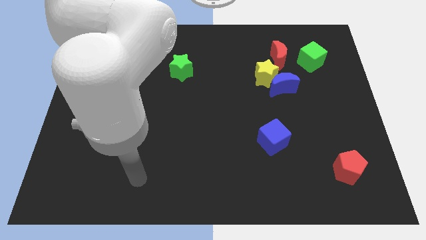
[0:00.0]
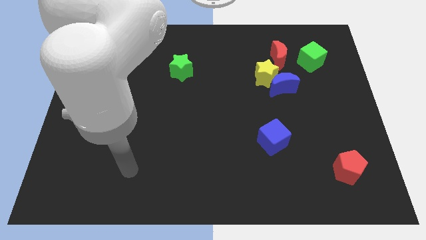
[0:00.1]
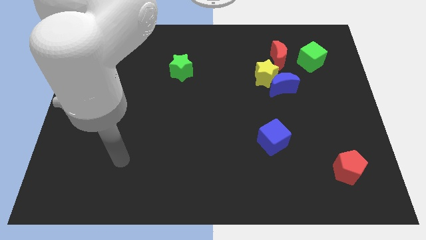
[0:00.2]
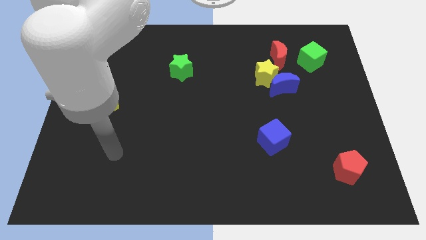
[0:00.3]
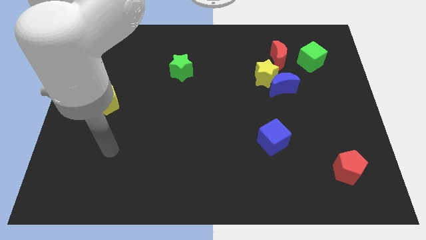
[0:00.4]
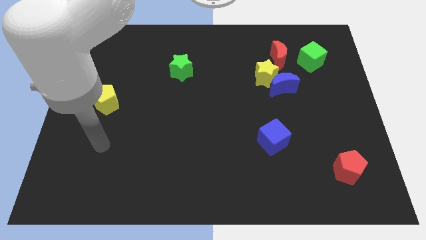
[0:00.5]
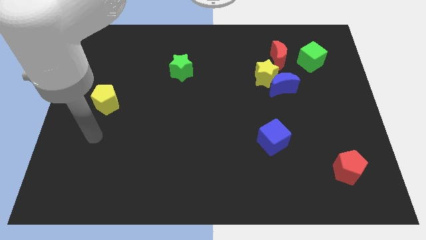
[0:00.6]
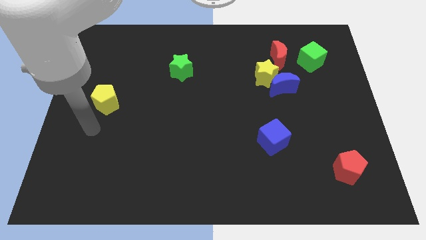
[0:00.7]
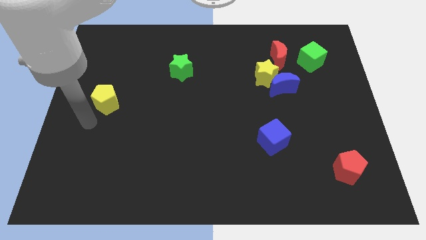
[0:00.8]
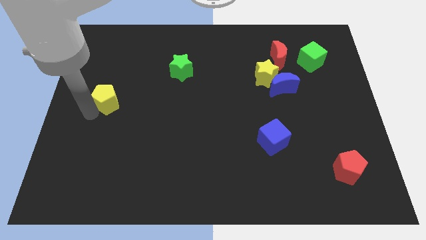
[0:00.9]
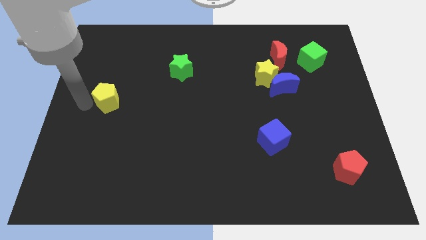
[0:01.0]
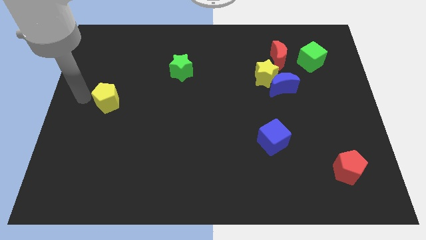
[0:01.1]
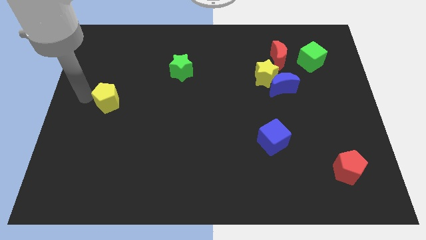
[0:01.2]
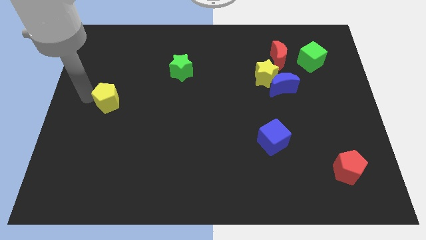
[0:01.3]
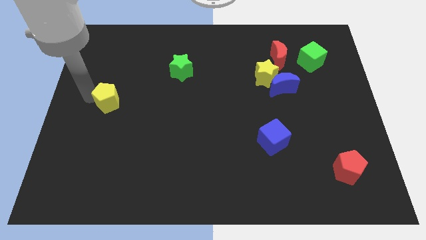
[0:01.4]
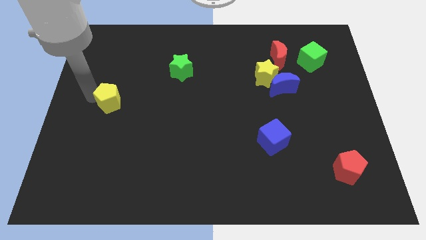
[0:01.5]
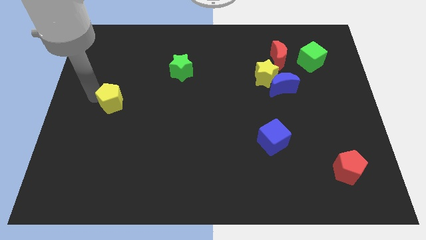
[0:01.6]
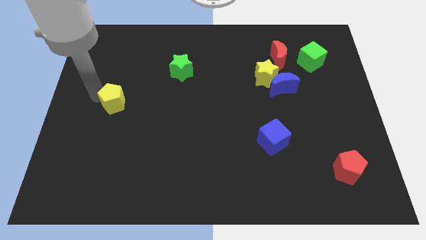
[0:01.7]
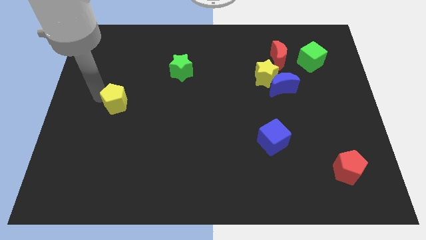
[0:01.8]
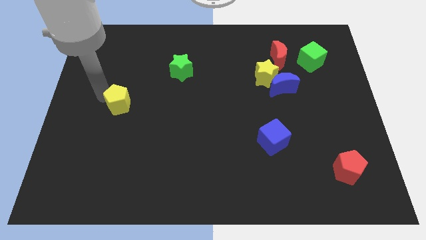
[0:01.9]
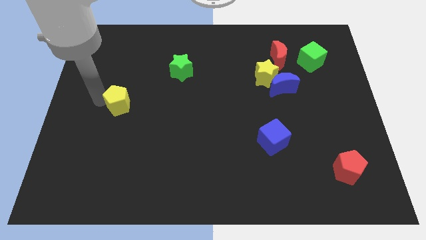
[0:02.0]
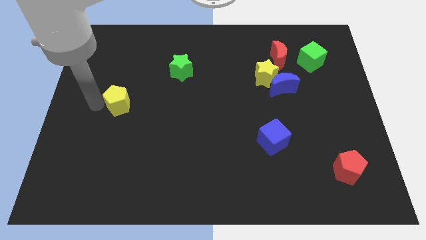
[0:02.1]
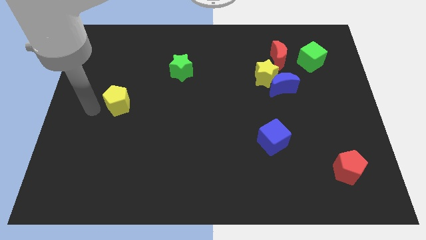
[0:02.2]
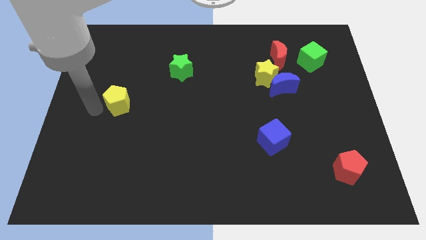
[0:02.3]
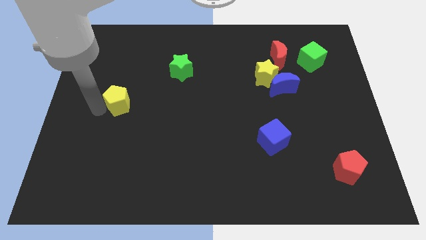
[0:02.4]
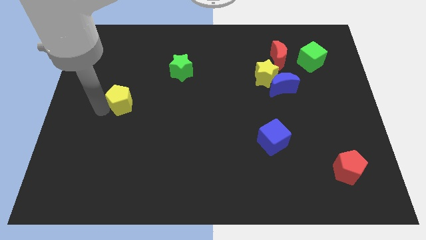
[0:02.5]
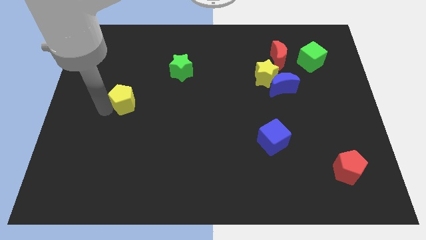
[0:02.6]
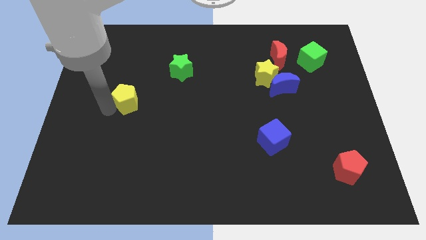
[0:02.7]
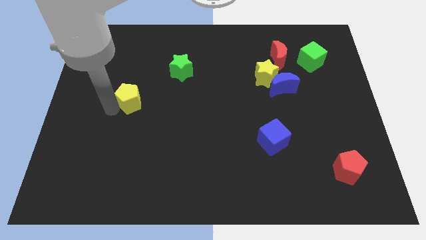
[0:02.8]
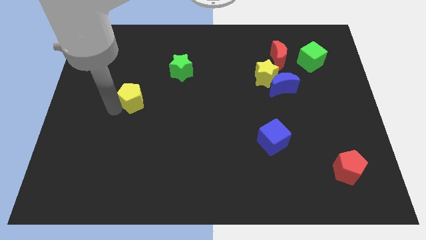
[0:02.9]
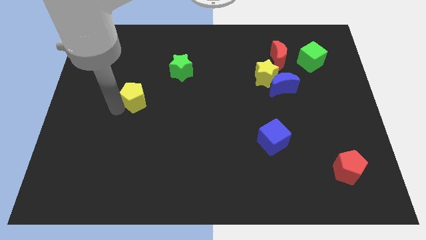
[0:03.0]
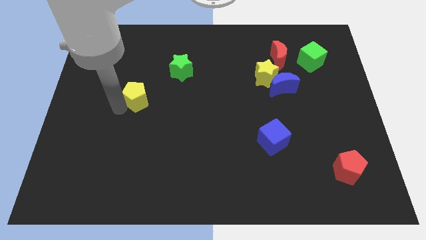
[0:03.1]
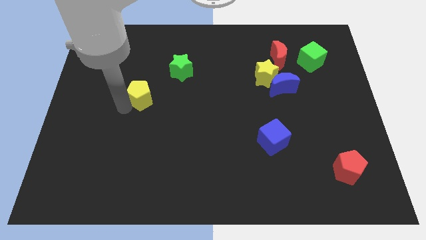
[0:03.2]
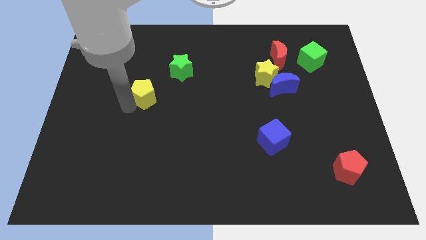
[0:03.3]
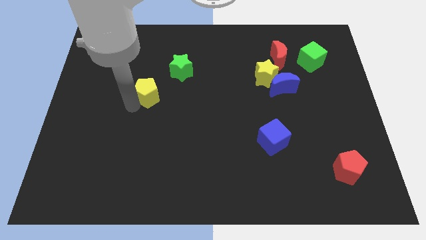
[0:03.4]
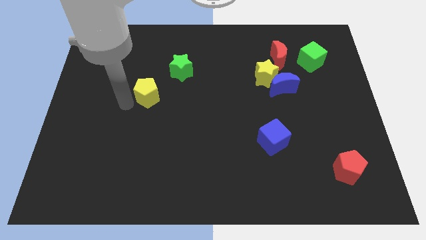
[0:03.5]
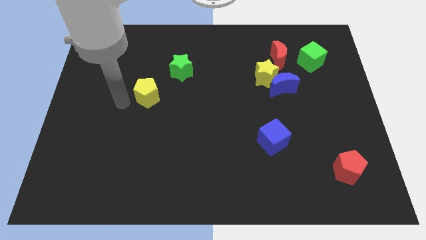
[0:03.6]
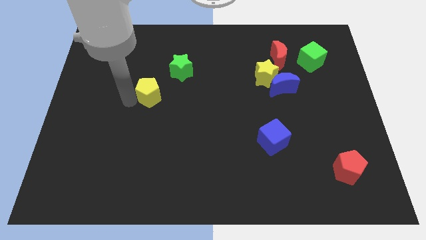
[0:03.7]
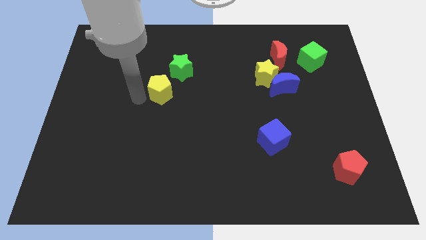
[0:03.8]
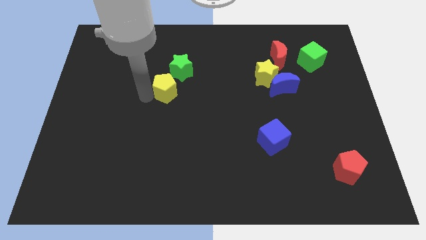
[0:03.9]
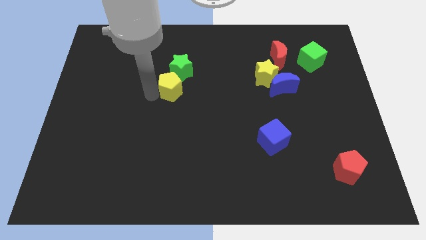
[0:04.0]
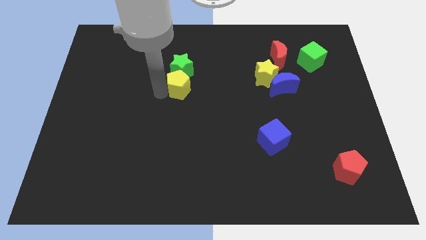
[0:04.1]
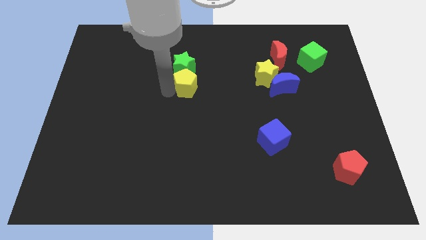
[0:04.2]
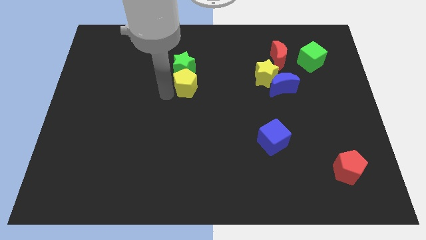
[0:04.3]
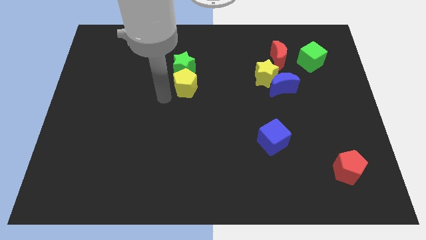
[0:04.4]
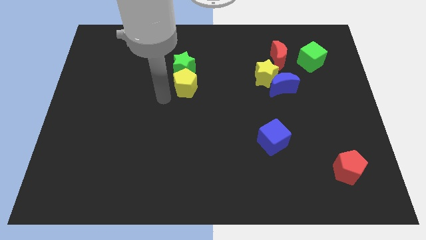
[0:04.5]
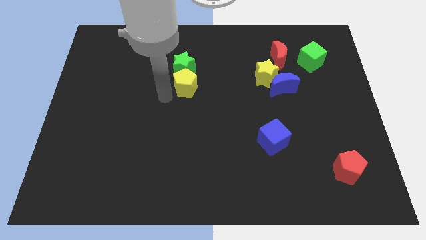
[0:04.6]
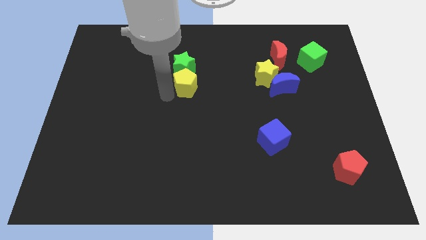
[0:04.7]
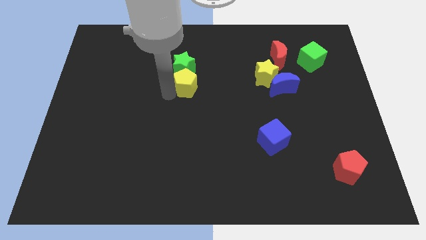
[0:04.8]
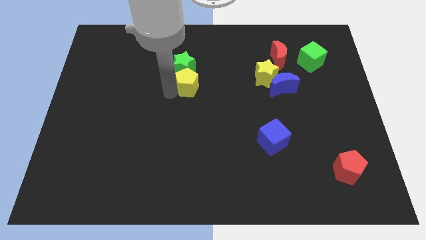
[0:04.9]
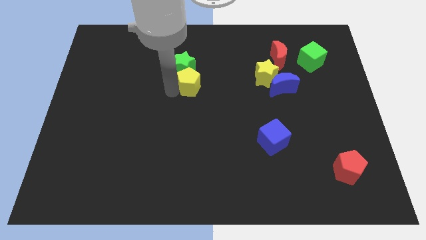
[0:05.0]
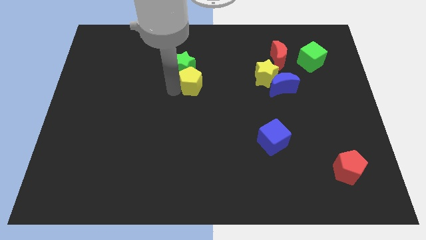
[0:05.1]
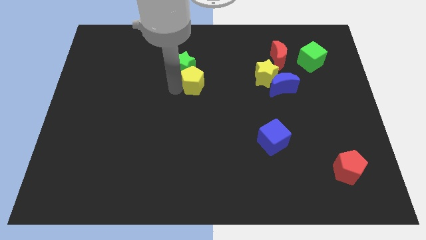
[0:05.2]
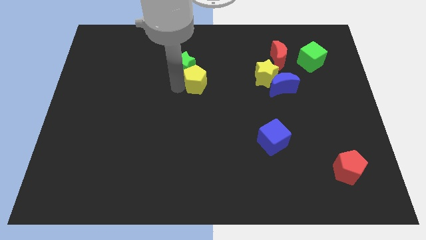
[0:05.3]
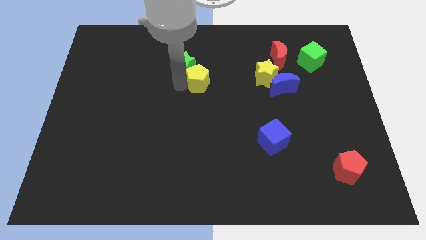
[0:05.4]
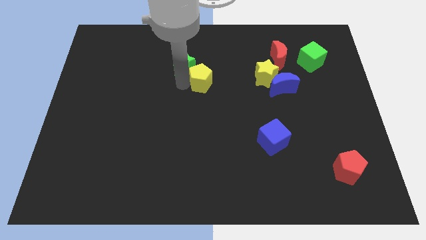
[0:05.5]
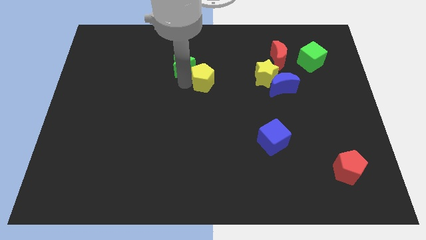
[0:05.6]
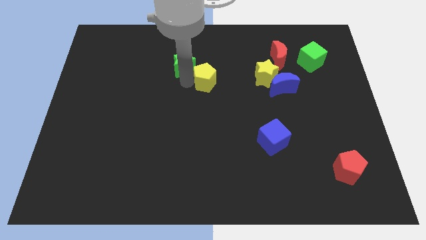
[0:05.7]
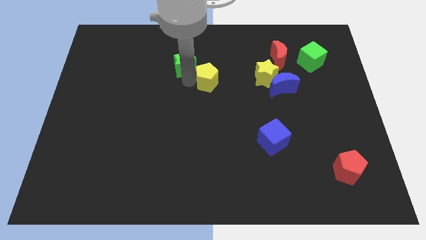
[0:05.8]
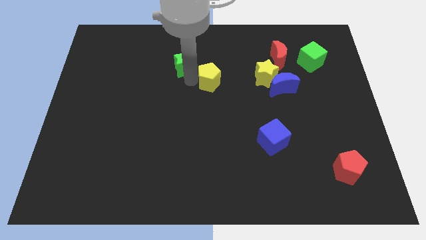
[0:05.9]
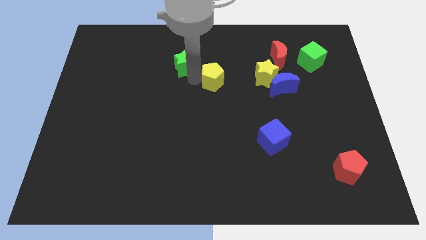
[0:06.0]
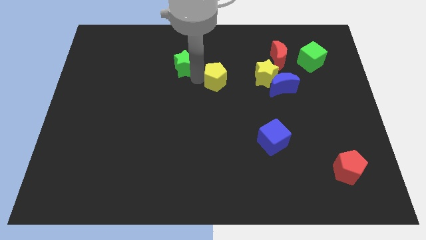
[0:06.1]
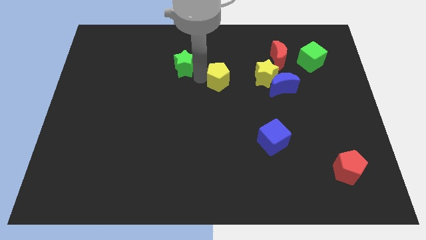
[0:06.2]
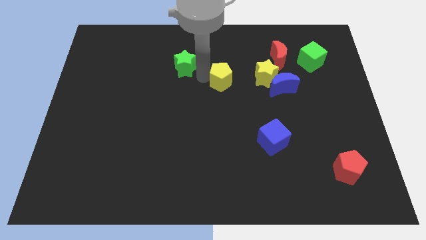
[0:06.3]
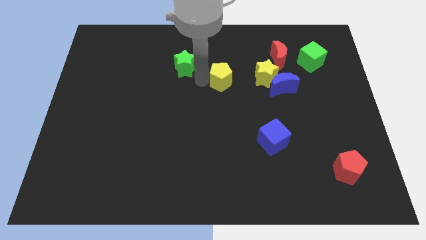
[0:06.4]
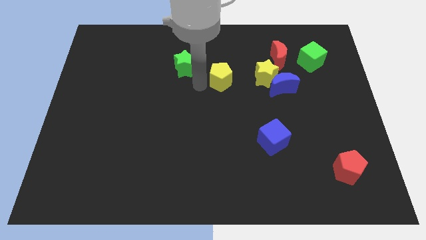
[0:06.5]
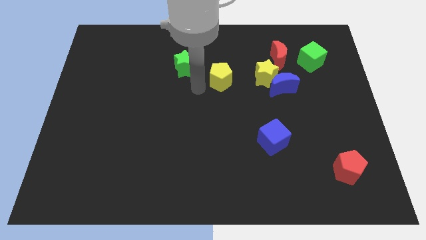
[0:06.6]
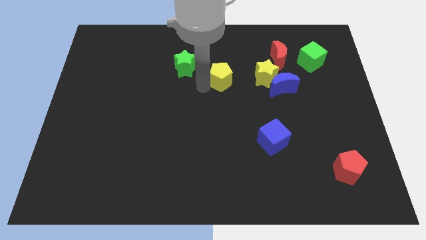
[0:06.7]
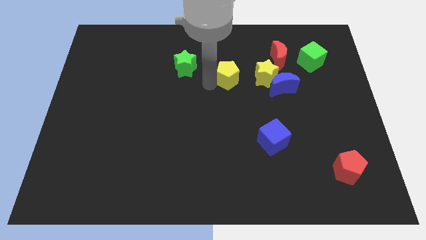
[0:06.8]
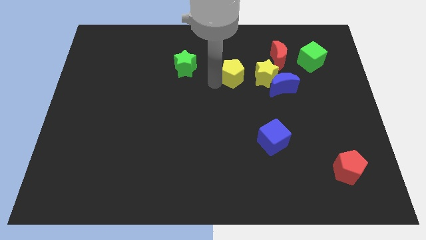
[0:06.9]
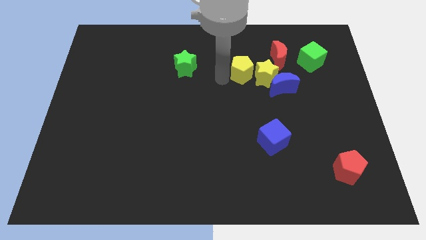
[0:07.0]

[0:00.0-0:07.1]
slide the yellow pentagon next to the yellow star

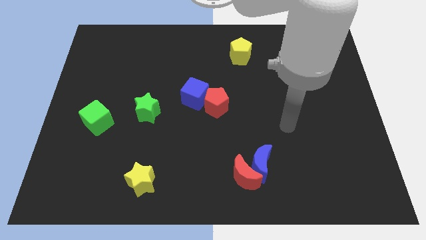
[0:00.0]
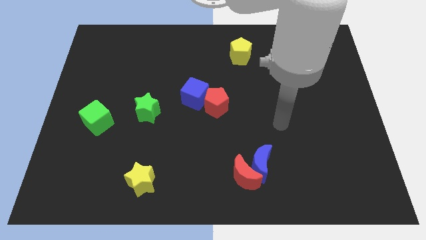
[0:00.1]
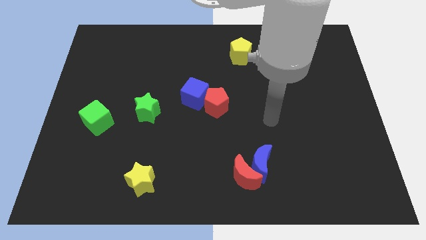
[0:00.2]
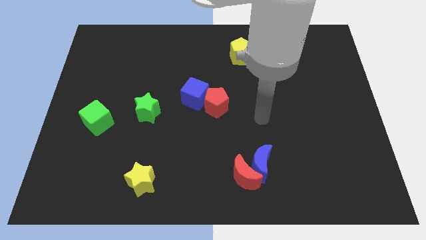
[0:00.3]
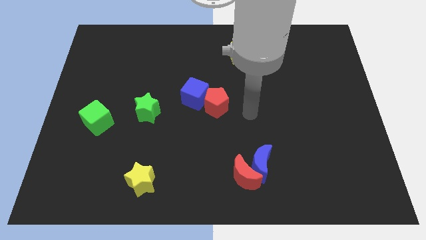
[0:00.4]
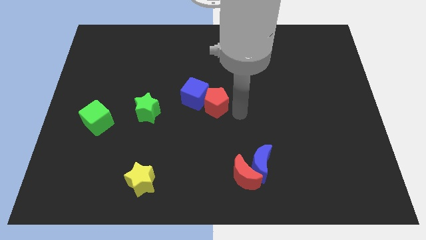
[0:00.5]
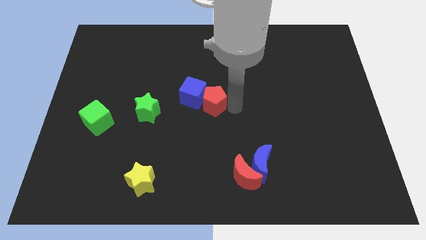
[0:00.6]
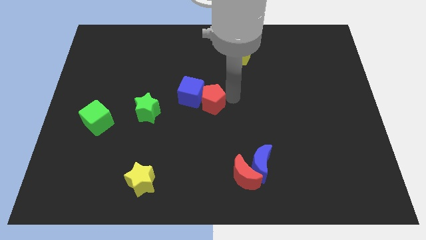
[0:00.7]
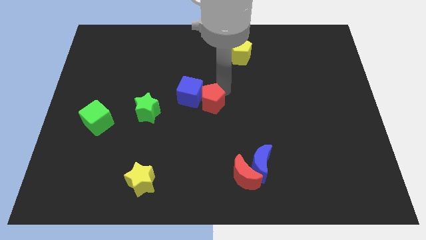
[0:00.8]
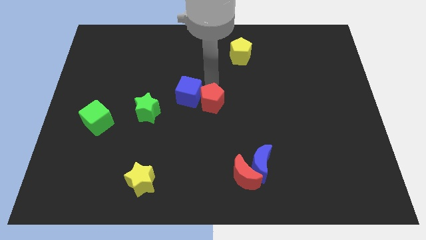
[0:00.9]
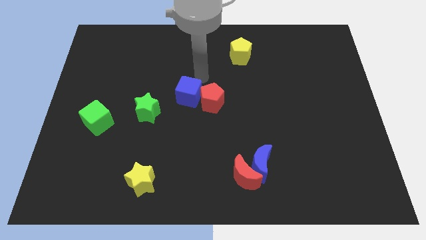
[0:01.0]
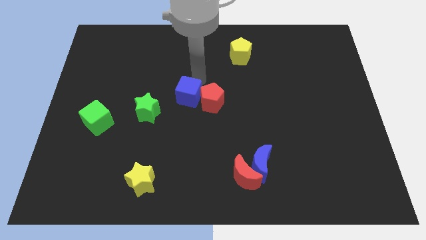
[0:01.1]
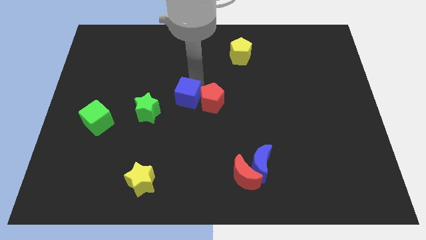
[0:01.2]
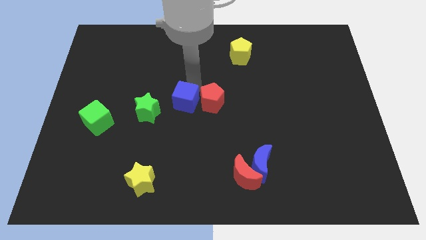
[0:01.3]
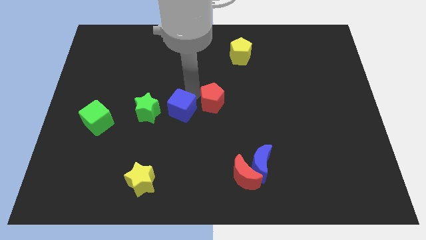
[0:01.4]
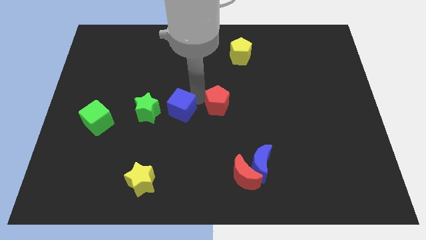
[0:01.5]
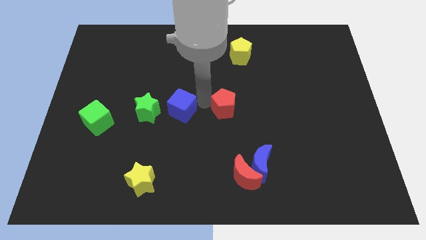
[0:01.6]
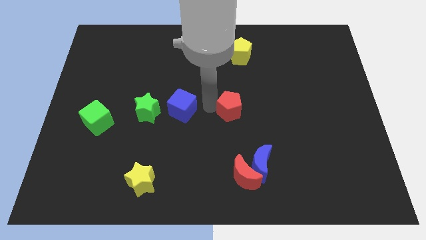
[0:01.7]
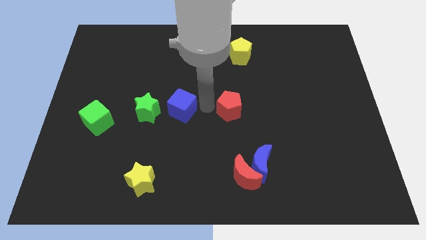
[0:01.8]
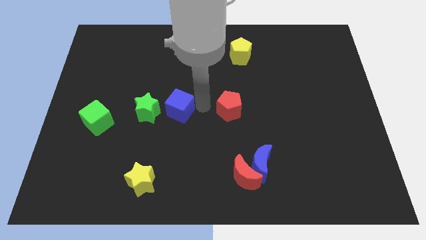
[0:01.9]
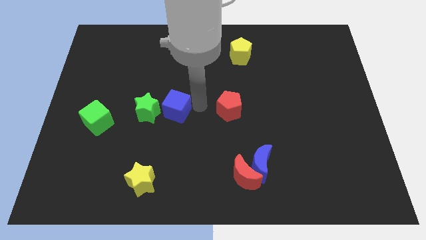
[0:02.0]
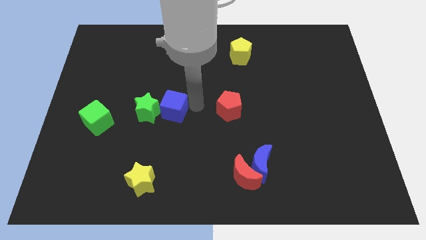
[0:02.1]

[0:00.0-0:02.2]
put the blue cube to the green star
